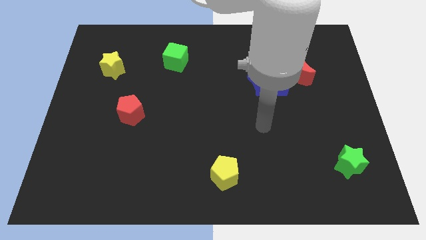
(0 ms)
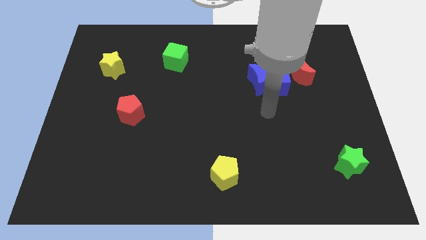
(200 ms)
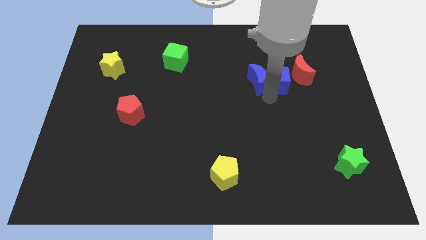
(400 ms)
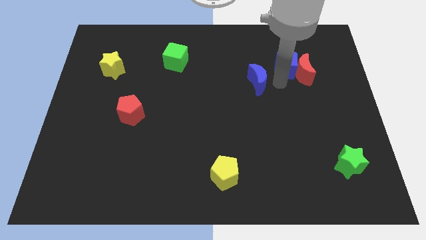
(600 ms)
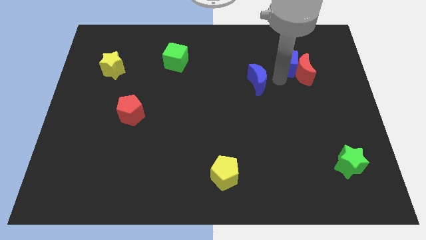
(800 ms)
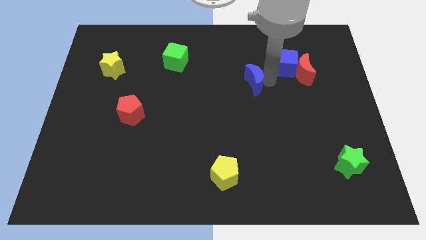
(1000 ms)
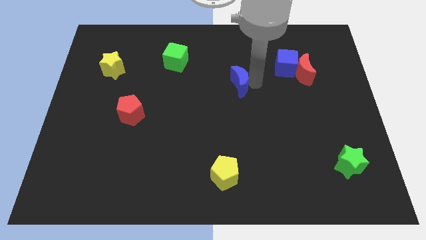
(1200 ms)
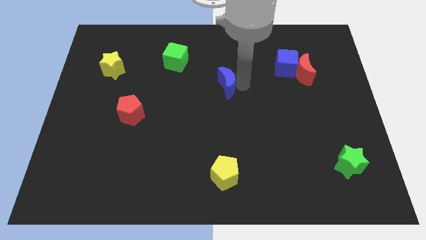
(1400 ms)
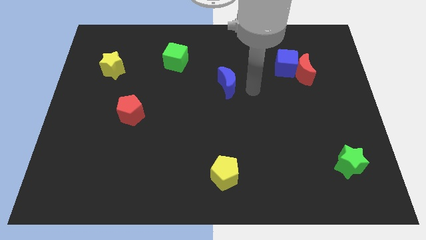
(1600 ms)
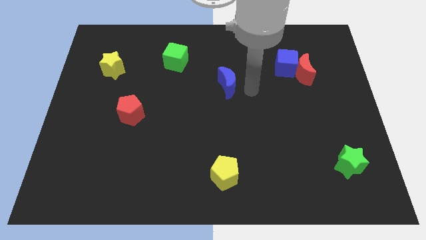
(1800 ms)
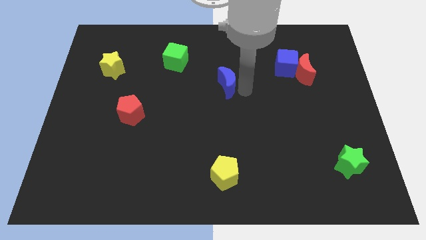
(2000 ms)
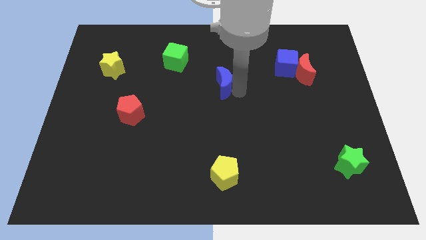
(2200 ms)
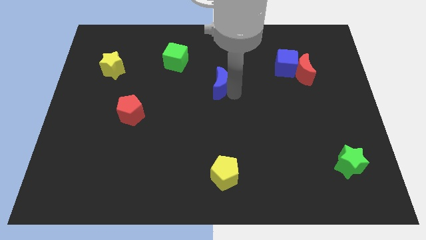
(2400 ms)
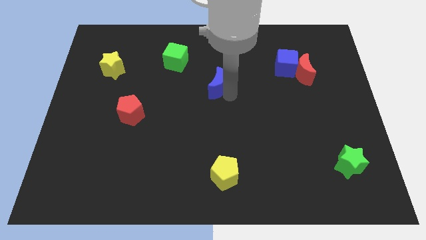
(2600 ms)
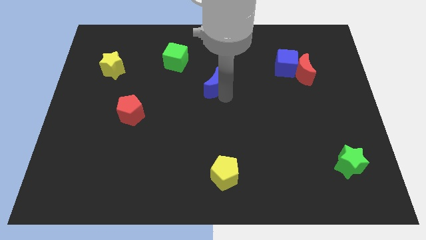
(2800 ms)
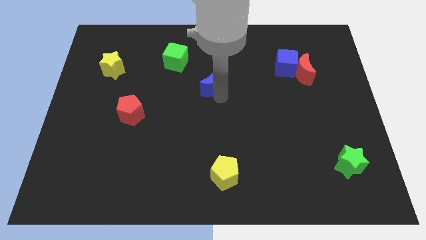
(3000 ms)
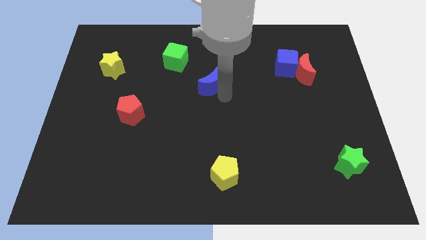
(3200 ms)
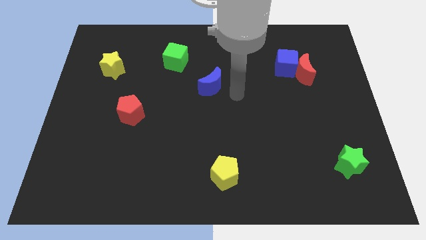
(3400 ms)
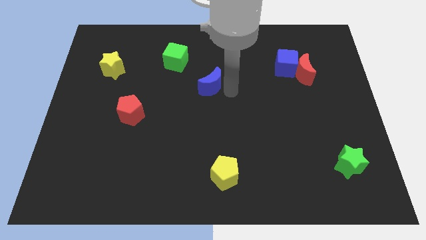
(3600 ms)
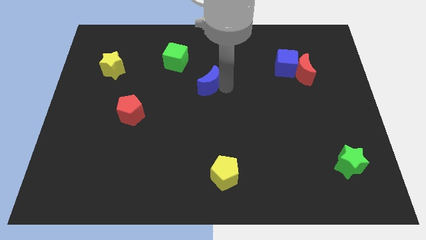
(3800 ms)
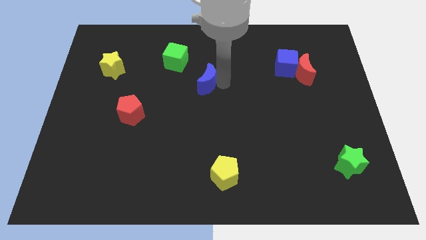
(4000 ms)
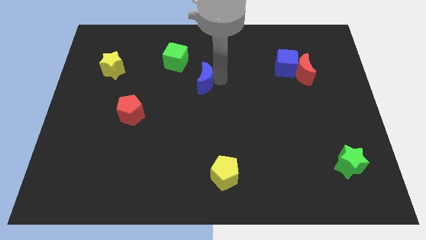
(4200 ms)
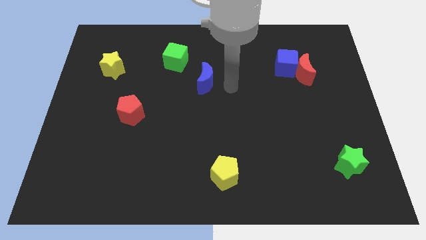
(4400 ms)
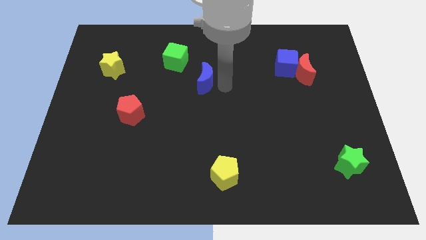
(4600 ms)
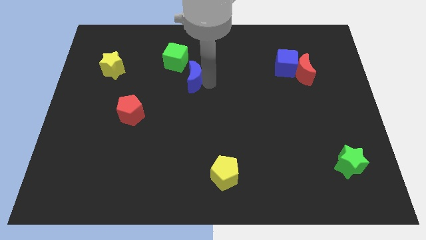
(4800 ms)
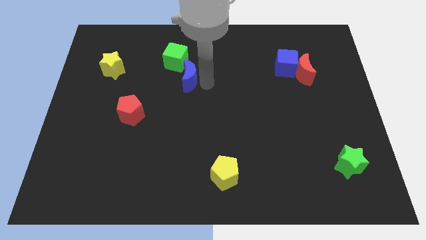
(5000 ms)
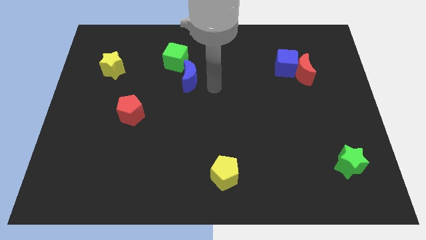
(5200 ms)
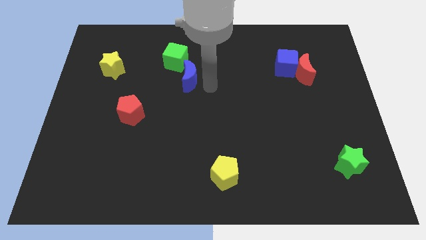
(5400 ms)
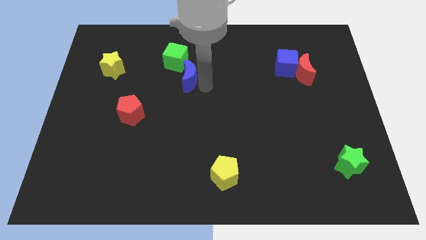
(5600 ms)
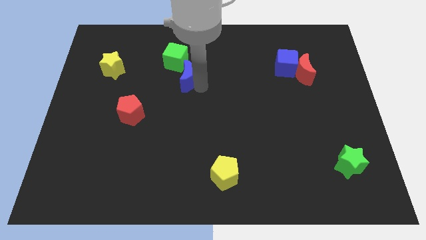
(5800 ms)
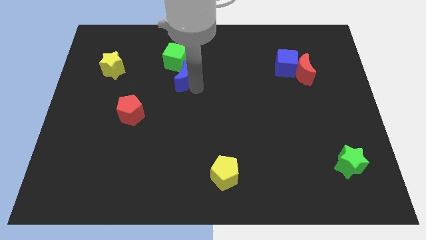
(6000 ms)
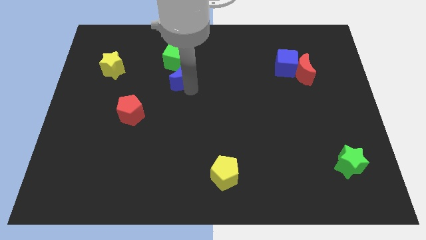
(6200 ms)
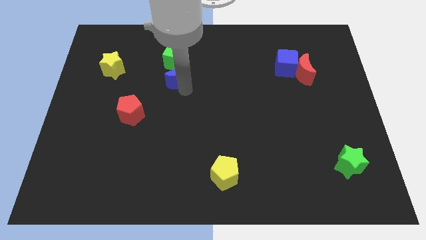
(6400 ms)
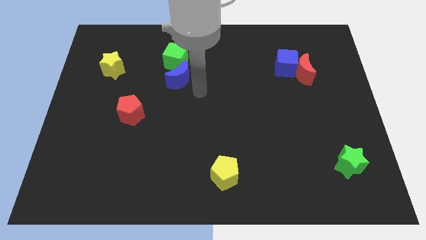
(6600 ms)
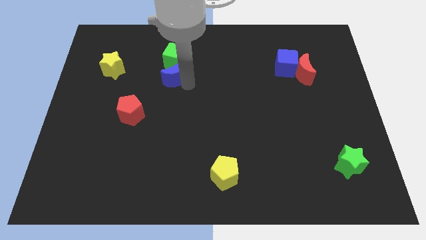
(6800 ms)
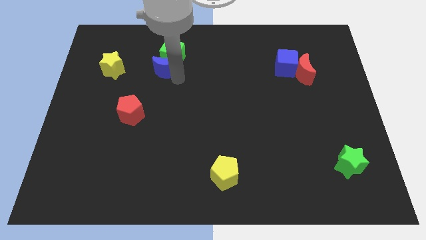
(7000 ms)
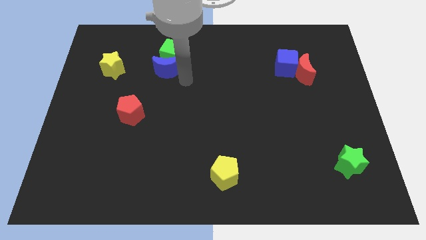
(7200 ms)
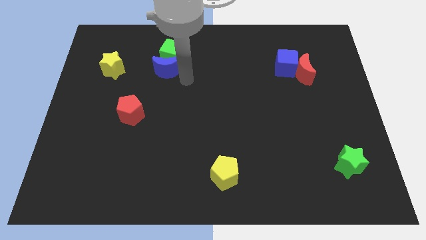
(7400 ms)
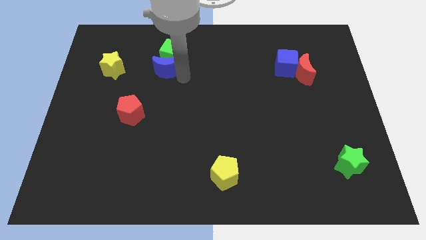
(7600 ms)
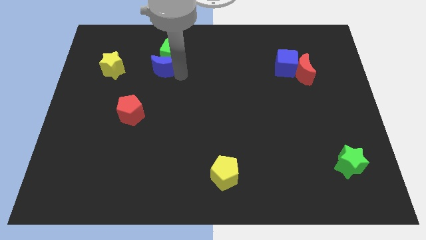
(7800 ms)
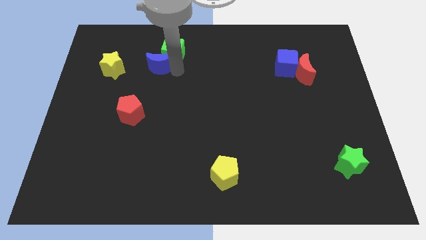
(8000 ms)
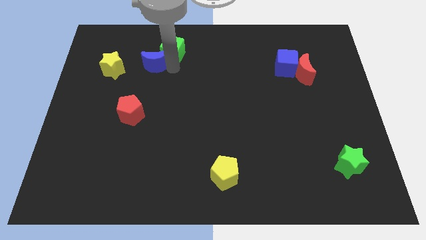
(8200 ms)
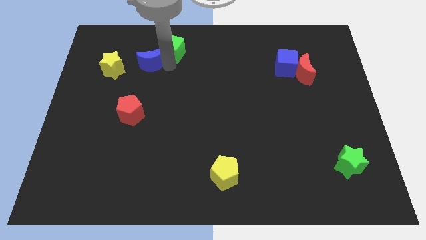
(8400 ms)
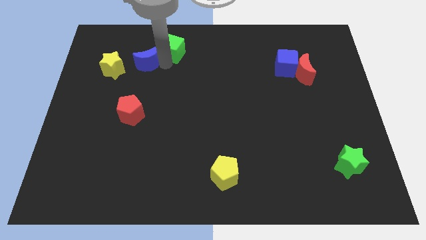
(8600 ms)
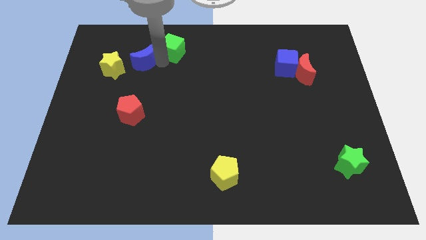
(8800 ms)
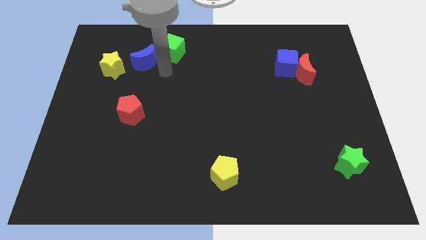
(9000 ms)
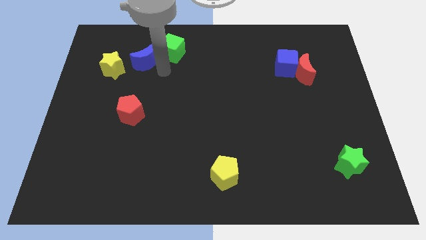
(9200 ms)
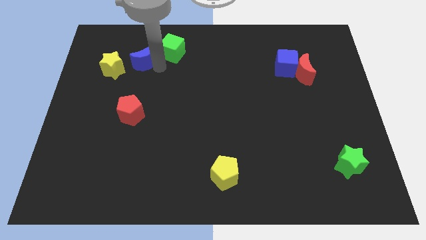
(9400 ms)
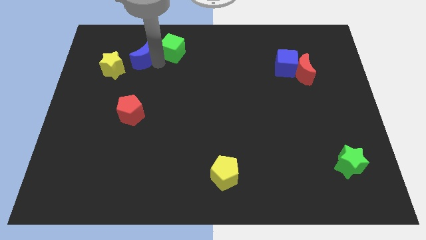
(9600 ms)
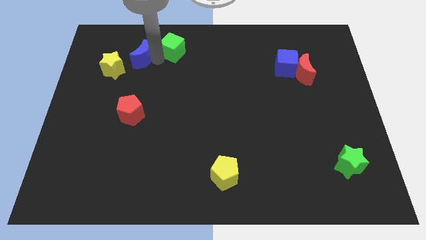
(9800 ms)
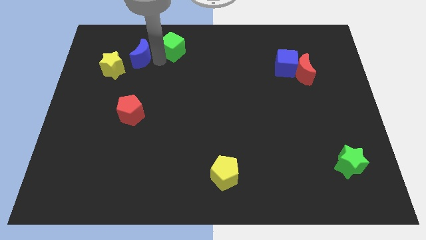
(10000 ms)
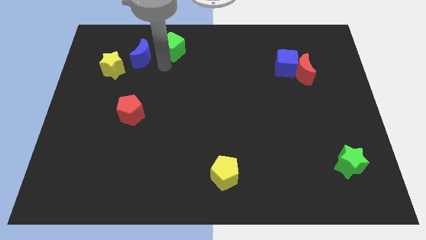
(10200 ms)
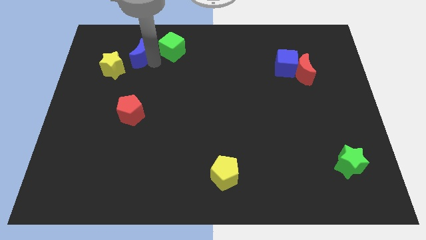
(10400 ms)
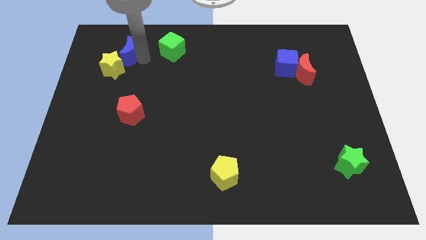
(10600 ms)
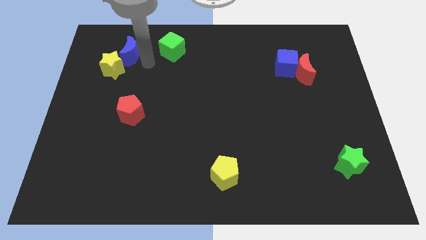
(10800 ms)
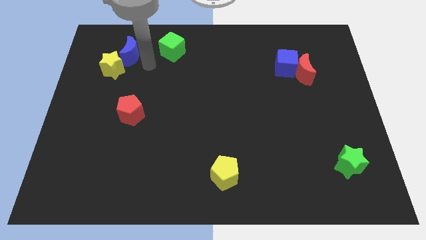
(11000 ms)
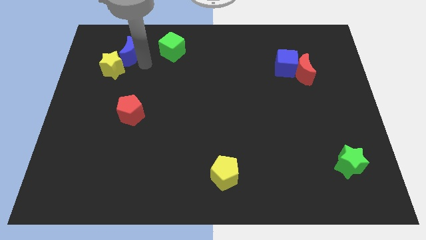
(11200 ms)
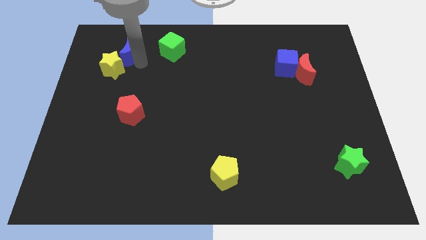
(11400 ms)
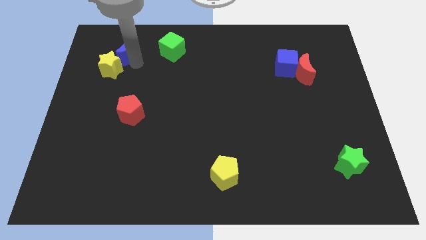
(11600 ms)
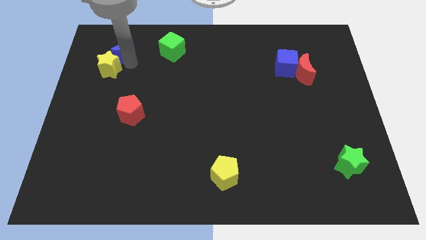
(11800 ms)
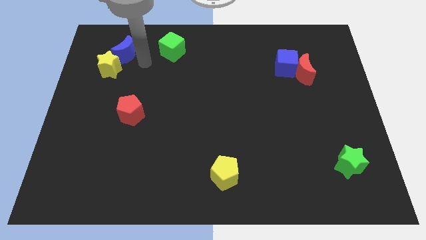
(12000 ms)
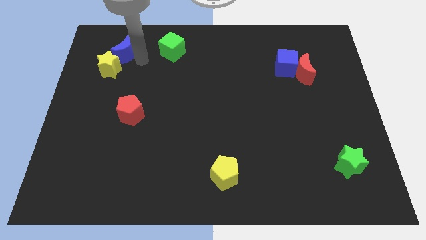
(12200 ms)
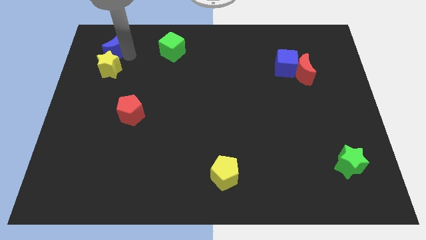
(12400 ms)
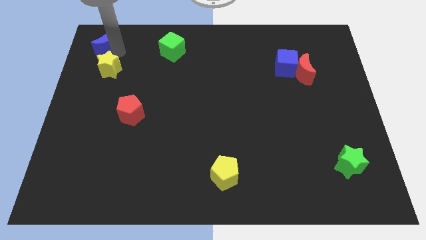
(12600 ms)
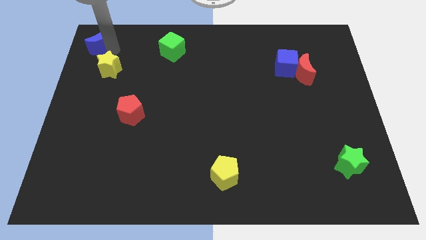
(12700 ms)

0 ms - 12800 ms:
push the blue moon to the top left corner

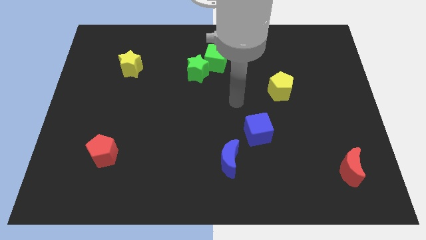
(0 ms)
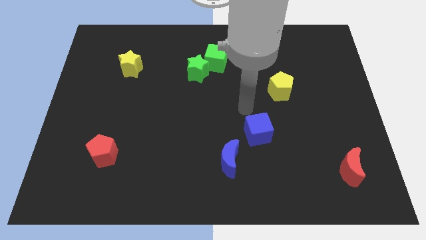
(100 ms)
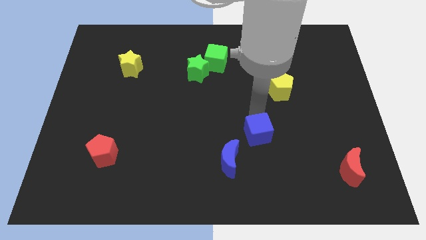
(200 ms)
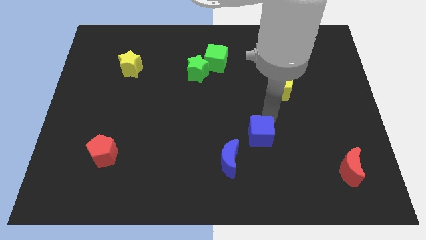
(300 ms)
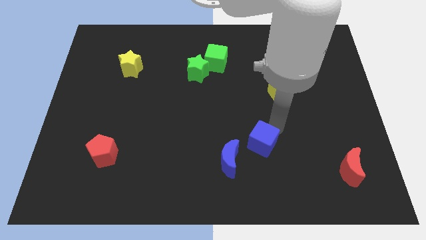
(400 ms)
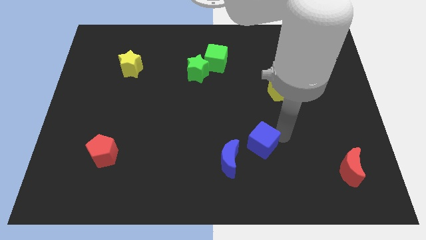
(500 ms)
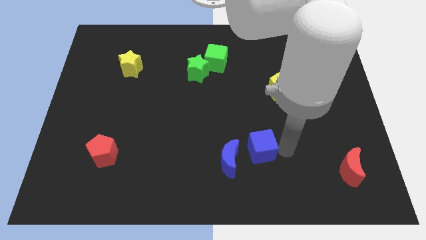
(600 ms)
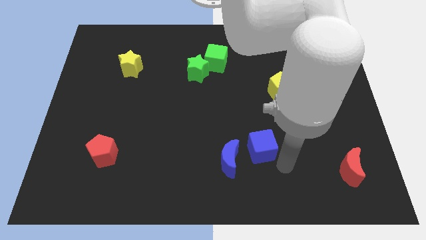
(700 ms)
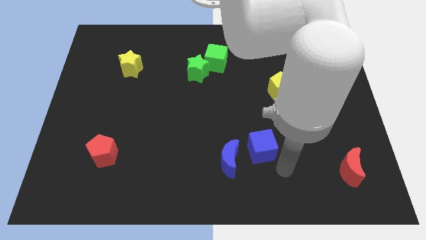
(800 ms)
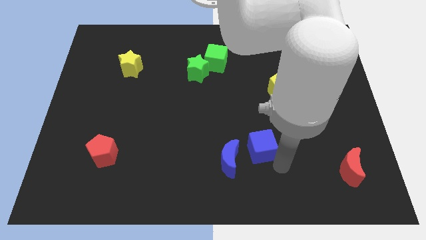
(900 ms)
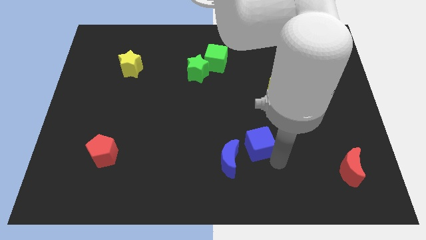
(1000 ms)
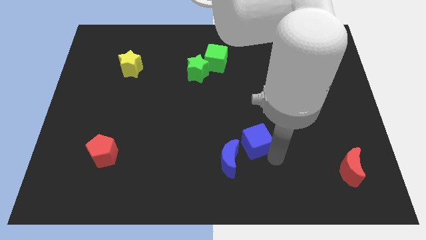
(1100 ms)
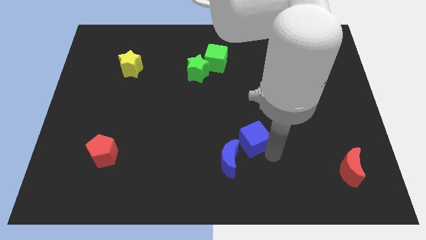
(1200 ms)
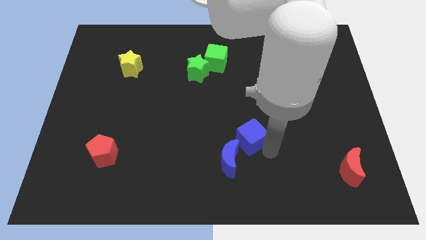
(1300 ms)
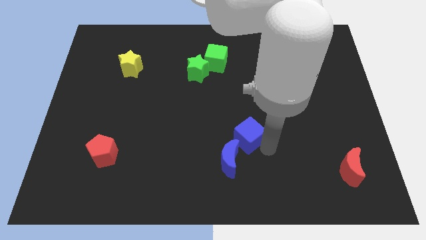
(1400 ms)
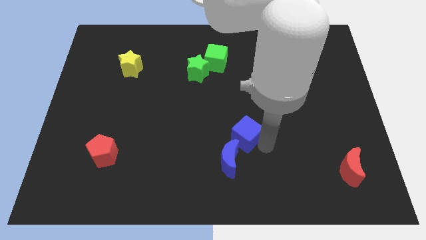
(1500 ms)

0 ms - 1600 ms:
slide the blue cube to the middle
